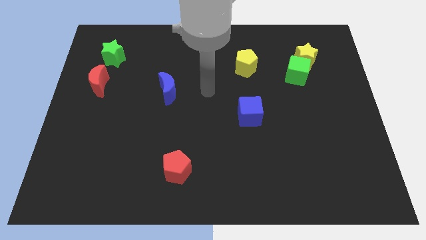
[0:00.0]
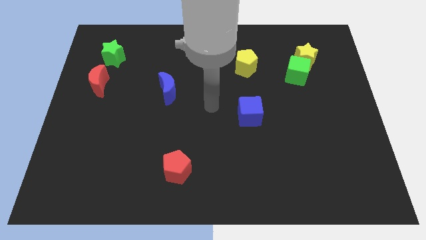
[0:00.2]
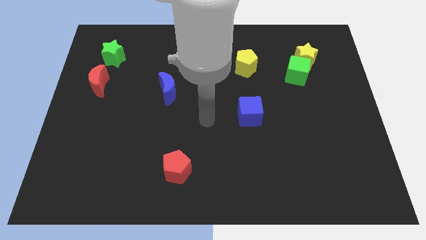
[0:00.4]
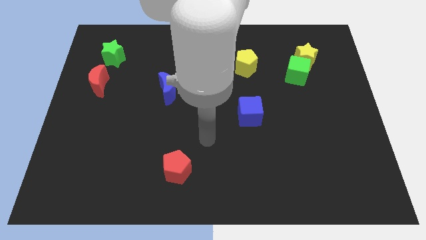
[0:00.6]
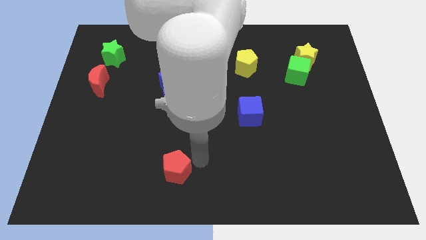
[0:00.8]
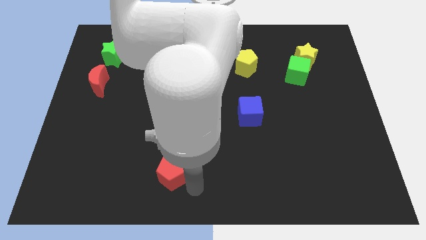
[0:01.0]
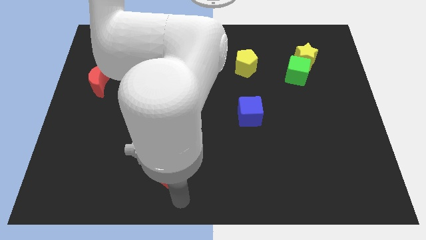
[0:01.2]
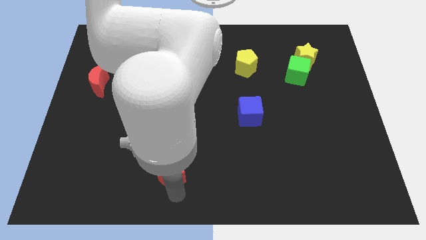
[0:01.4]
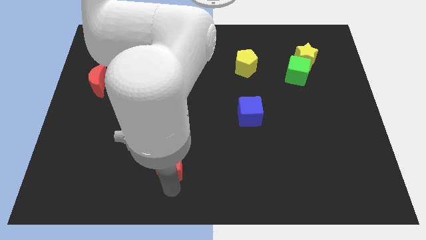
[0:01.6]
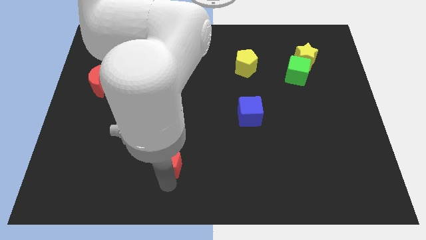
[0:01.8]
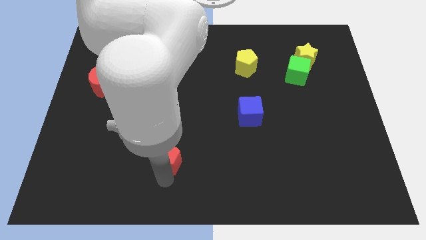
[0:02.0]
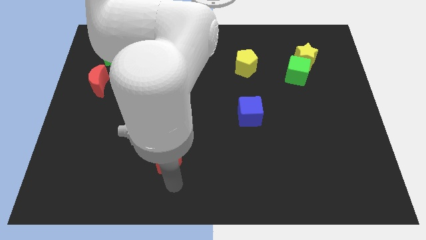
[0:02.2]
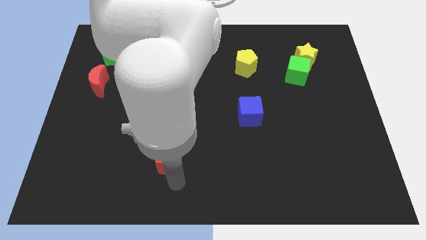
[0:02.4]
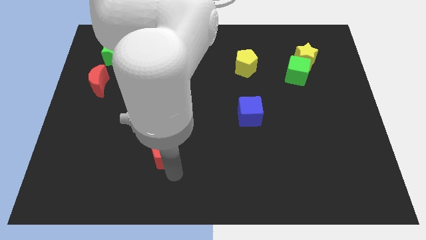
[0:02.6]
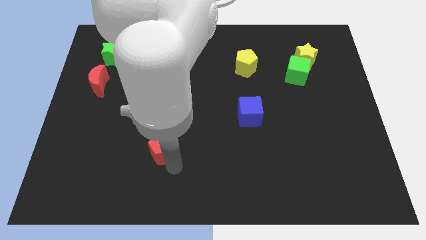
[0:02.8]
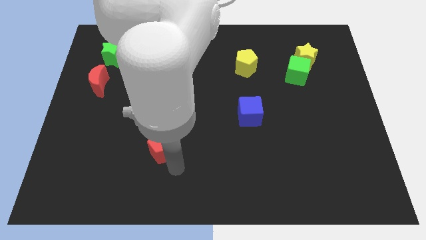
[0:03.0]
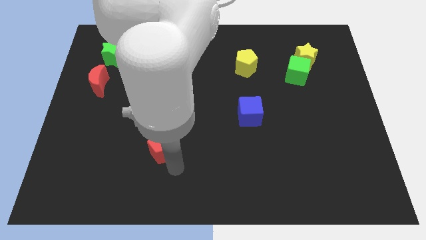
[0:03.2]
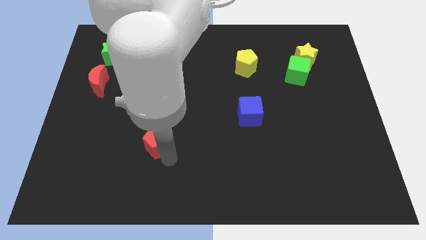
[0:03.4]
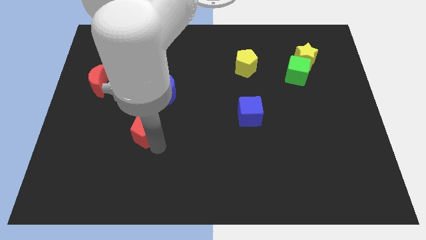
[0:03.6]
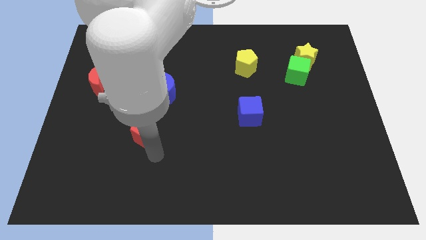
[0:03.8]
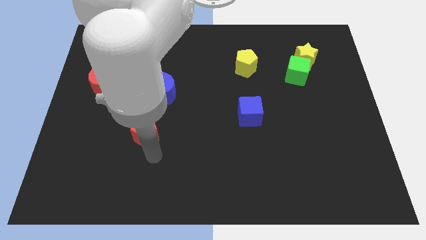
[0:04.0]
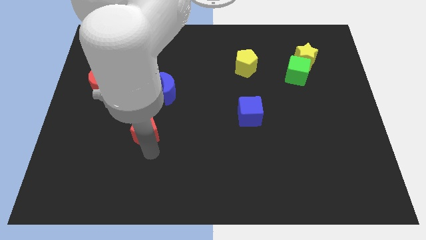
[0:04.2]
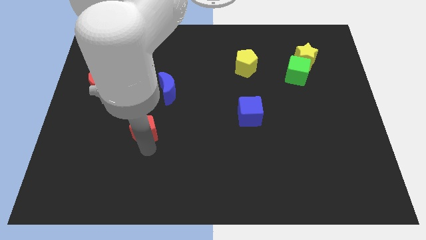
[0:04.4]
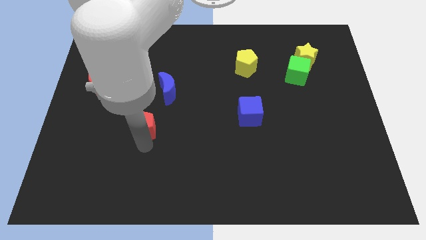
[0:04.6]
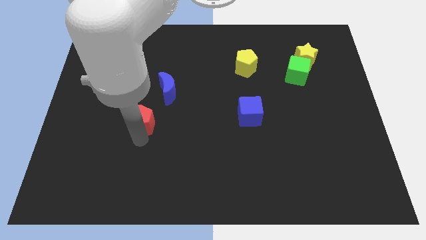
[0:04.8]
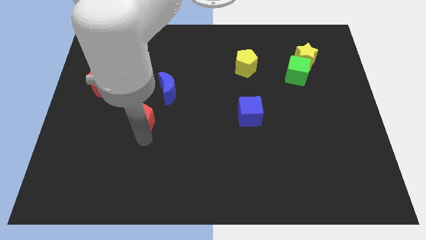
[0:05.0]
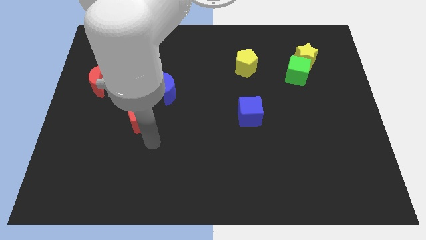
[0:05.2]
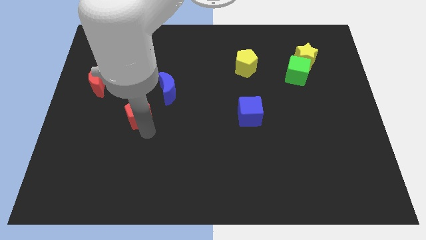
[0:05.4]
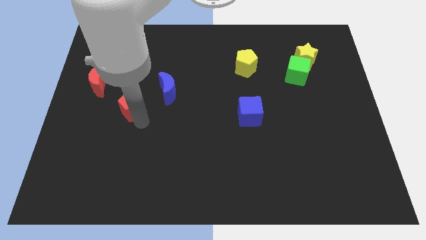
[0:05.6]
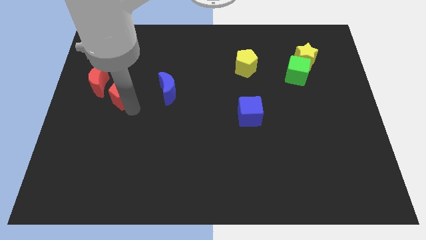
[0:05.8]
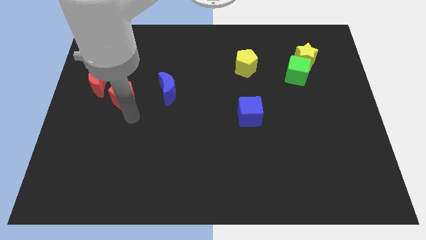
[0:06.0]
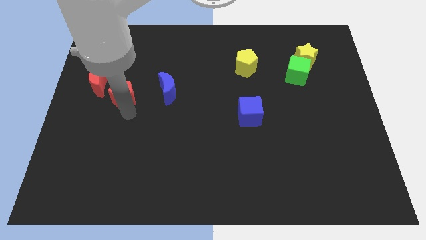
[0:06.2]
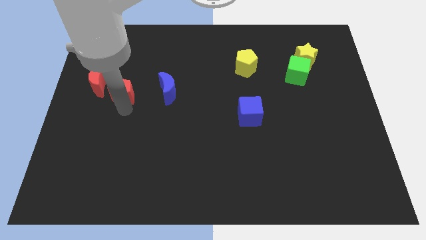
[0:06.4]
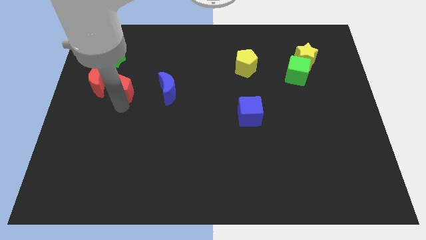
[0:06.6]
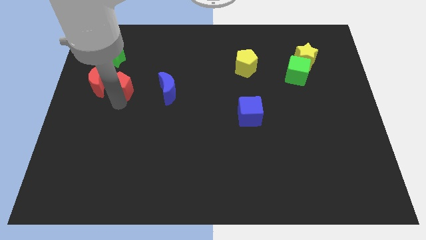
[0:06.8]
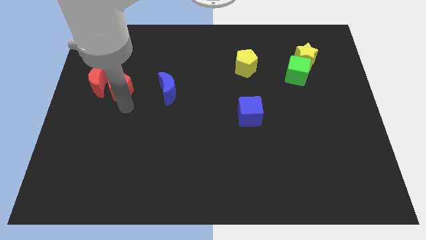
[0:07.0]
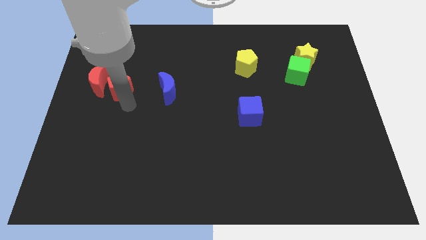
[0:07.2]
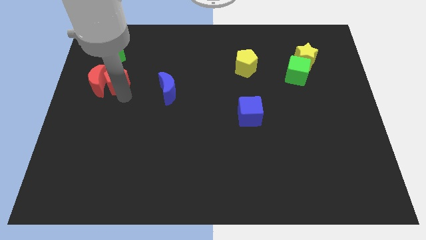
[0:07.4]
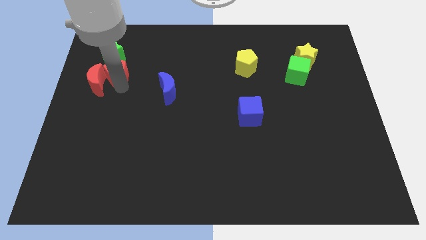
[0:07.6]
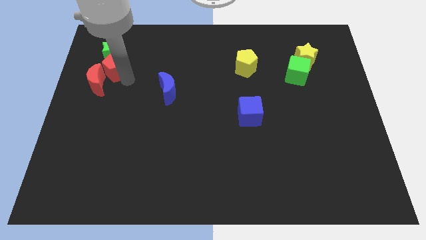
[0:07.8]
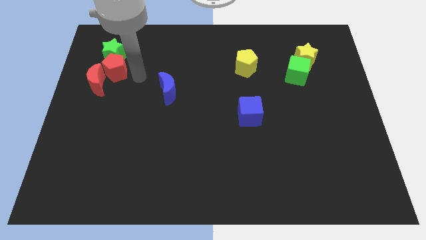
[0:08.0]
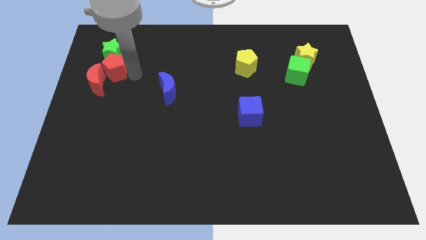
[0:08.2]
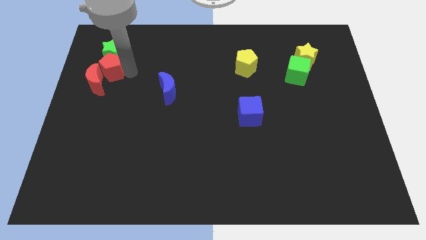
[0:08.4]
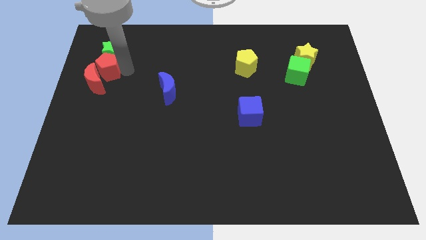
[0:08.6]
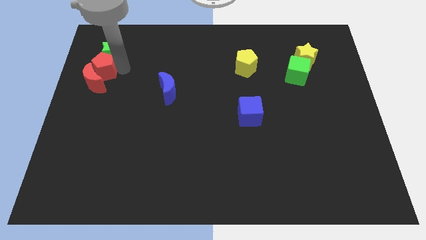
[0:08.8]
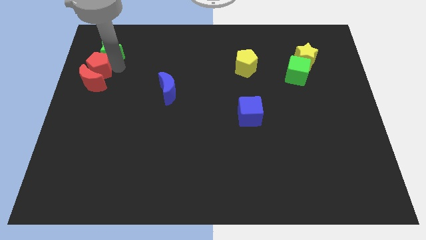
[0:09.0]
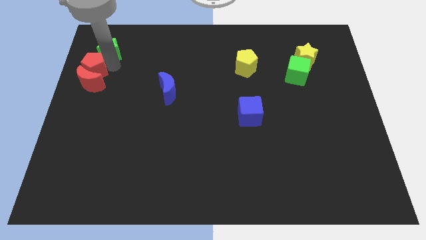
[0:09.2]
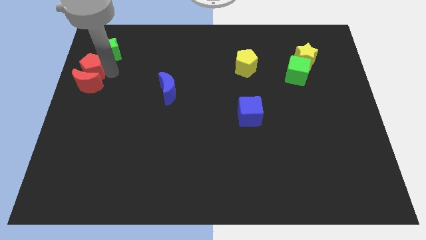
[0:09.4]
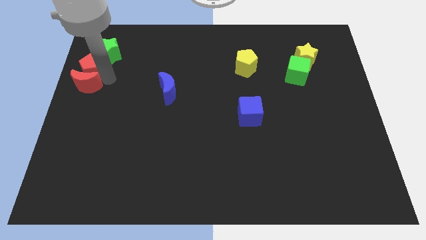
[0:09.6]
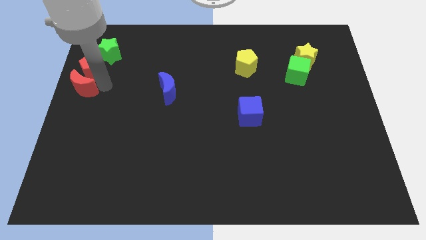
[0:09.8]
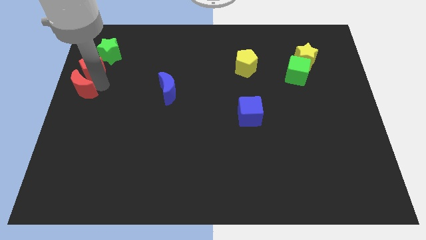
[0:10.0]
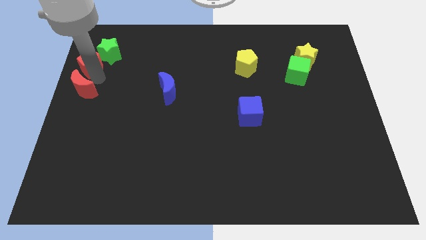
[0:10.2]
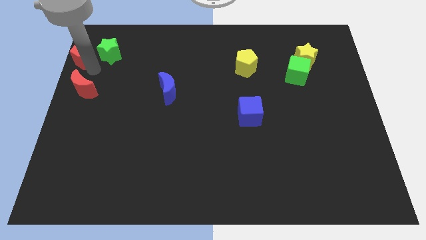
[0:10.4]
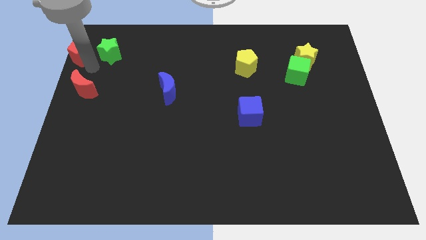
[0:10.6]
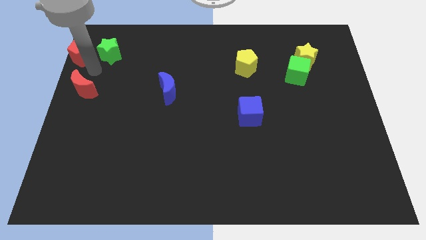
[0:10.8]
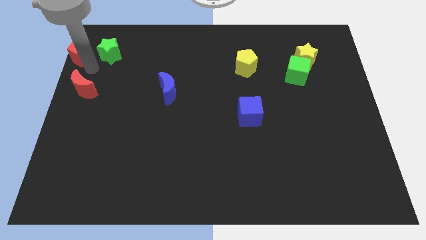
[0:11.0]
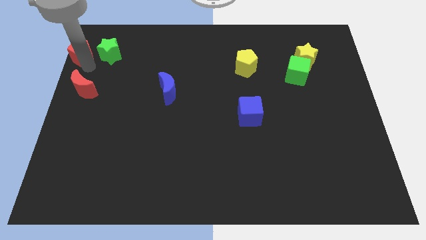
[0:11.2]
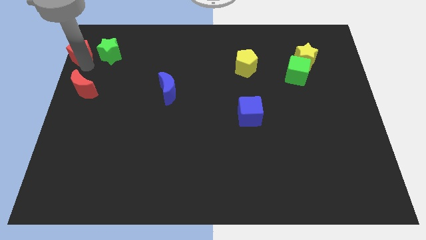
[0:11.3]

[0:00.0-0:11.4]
push the red pentagon to the top left
